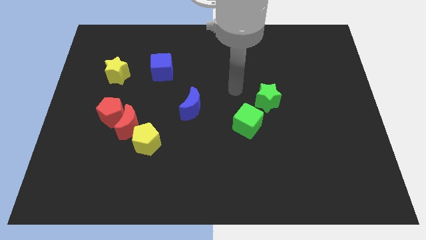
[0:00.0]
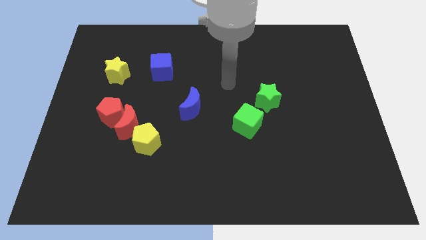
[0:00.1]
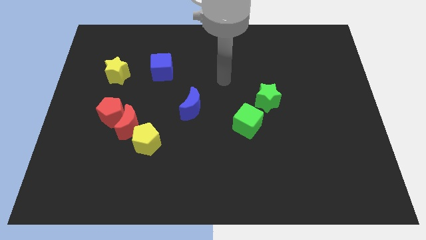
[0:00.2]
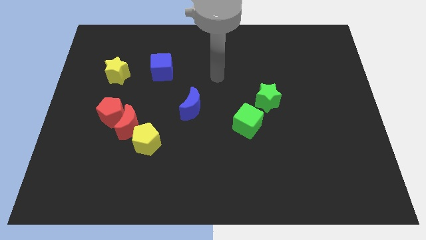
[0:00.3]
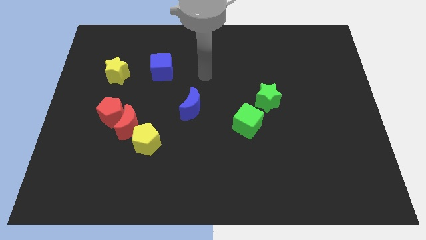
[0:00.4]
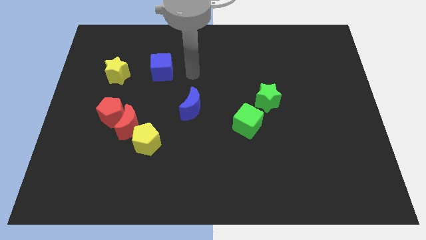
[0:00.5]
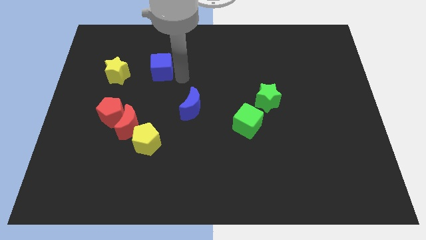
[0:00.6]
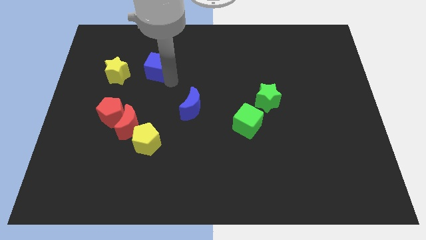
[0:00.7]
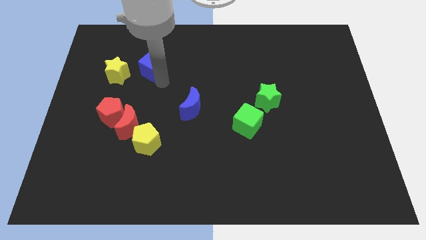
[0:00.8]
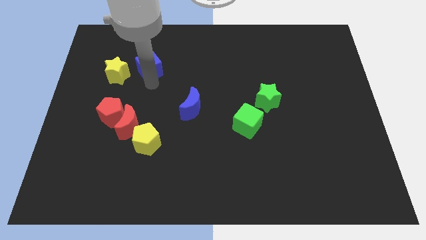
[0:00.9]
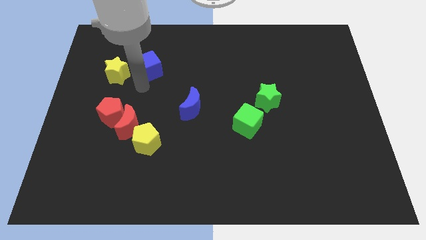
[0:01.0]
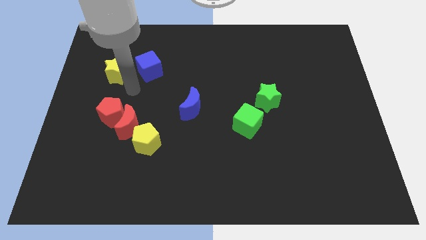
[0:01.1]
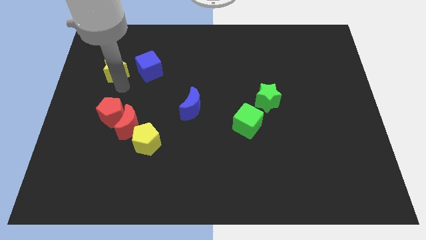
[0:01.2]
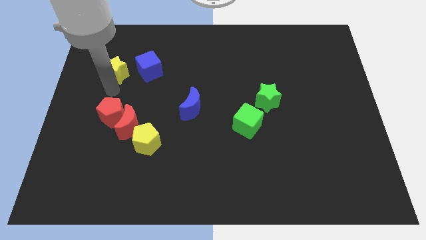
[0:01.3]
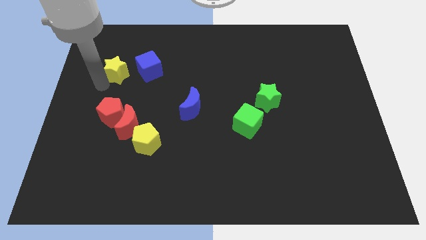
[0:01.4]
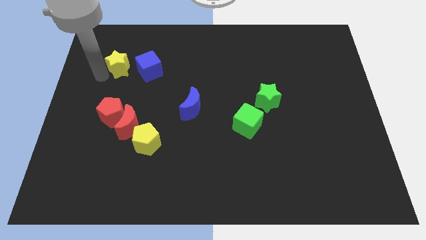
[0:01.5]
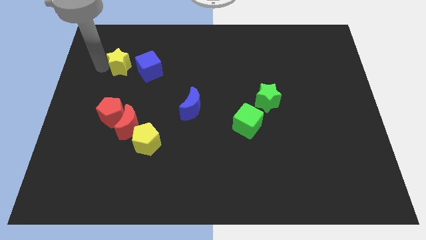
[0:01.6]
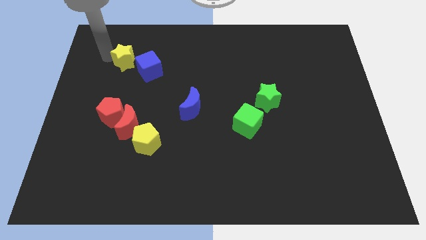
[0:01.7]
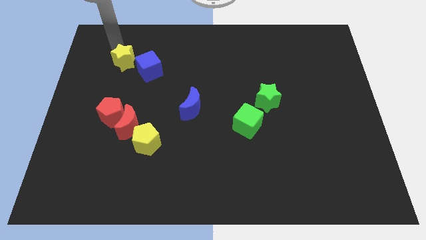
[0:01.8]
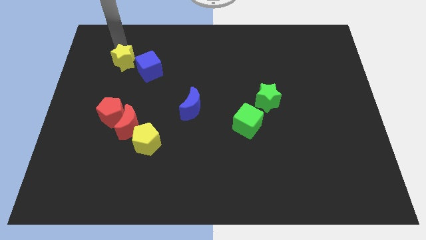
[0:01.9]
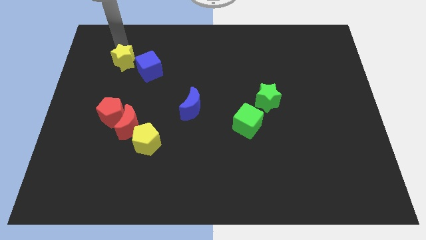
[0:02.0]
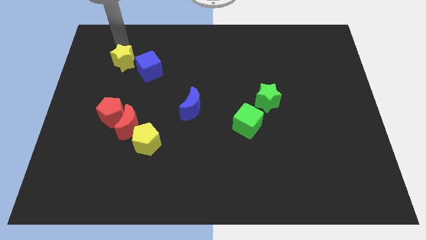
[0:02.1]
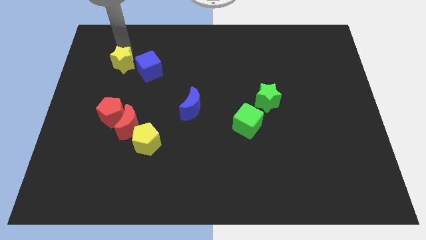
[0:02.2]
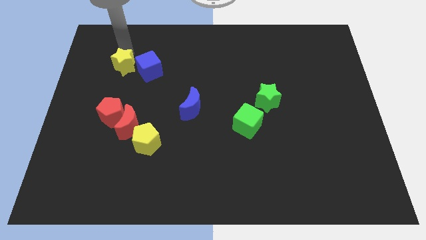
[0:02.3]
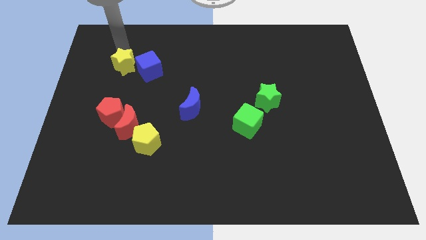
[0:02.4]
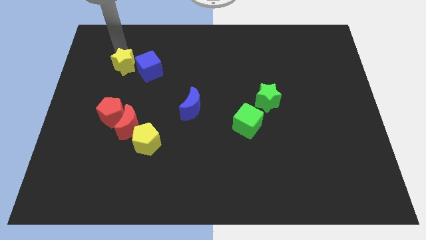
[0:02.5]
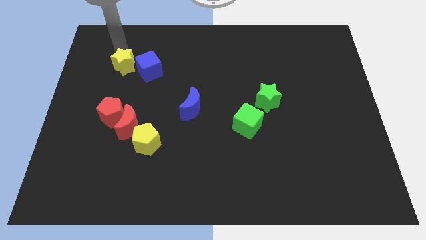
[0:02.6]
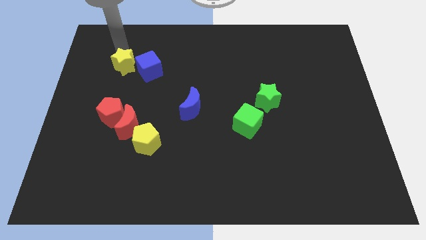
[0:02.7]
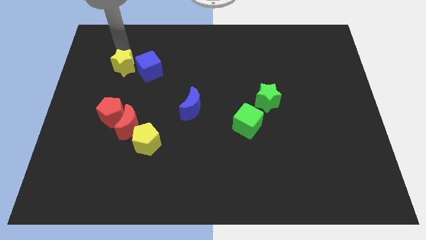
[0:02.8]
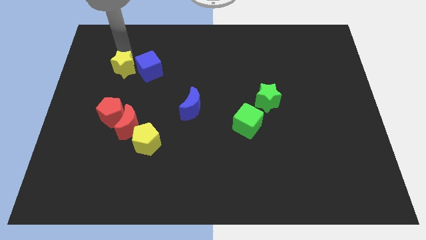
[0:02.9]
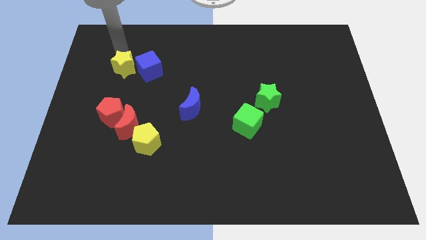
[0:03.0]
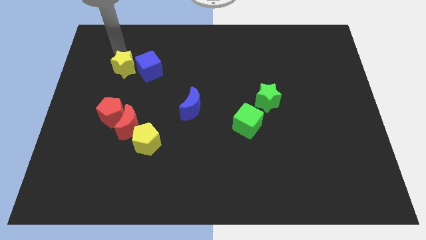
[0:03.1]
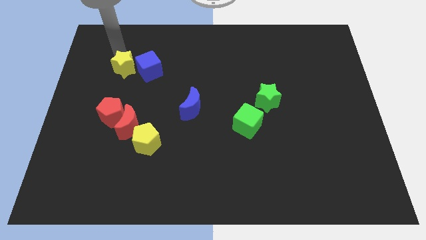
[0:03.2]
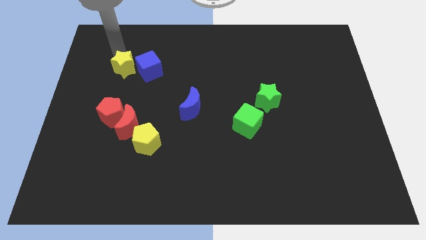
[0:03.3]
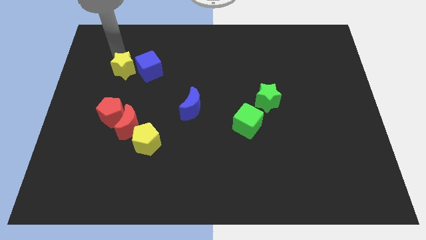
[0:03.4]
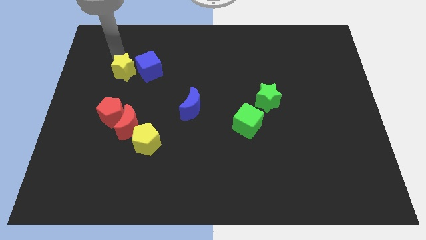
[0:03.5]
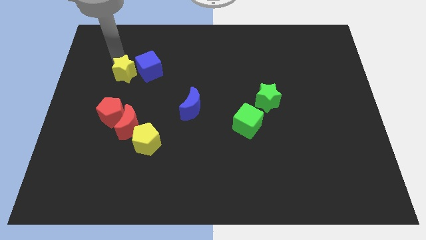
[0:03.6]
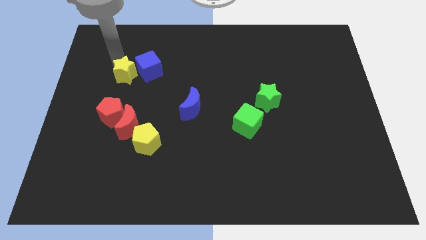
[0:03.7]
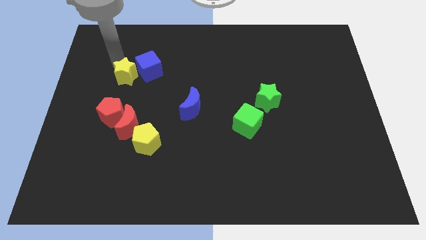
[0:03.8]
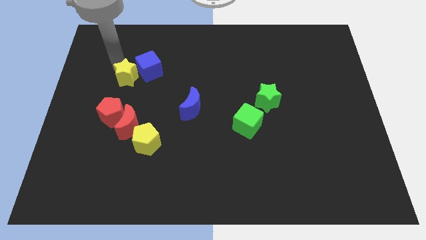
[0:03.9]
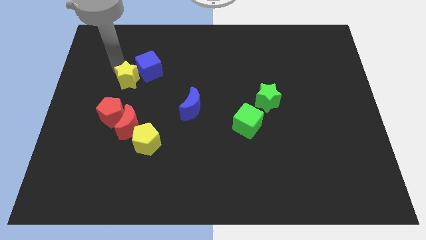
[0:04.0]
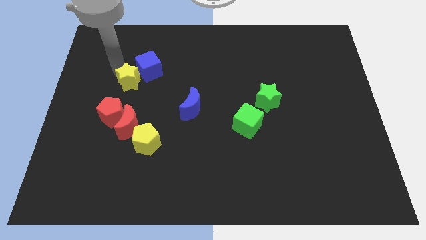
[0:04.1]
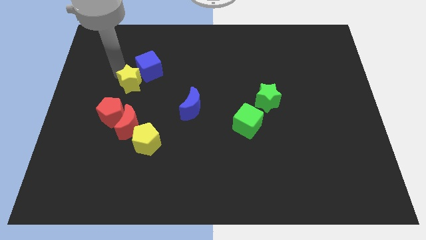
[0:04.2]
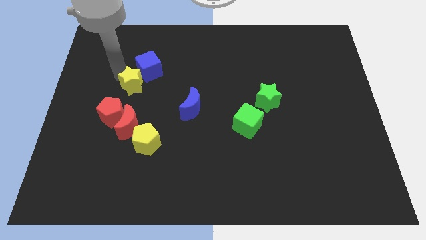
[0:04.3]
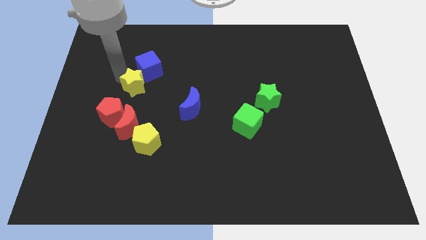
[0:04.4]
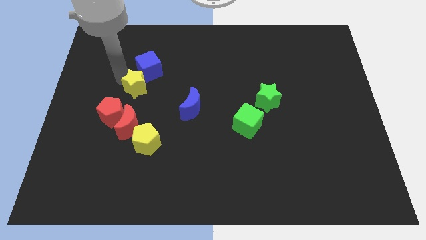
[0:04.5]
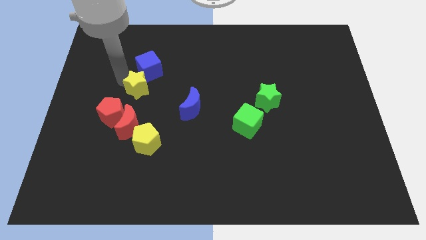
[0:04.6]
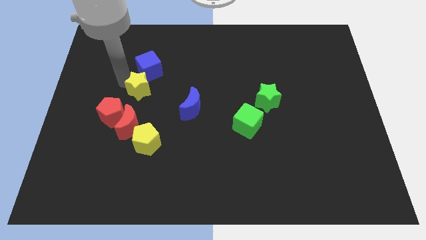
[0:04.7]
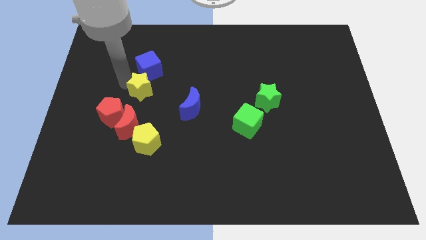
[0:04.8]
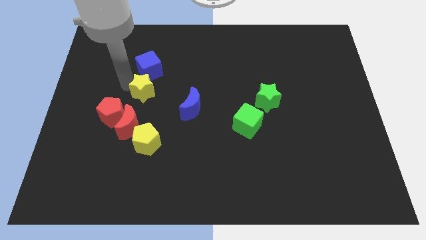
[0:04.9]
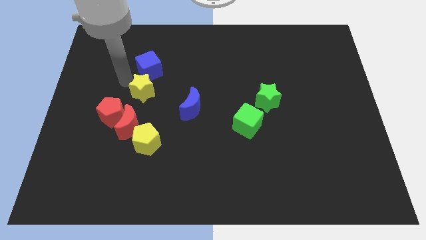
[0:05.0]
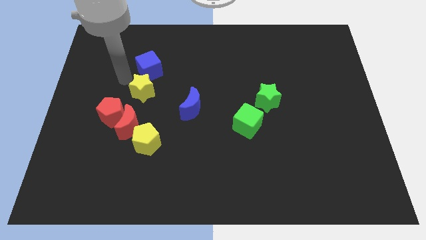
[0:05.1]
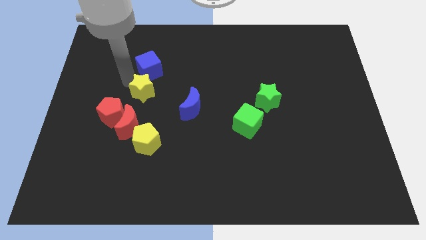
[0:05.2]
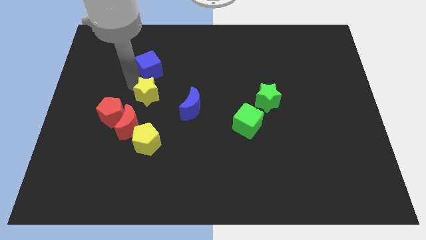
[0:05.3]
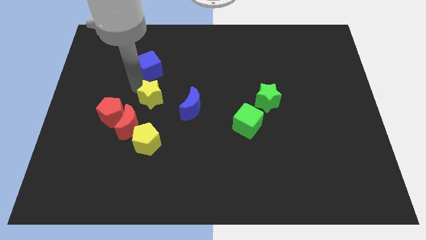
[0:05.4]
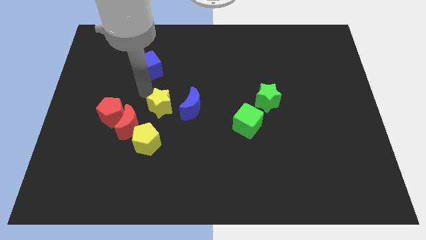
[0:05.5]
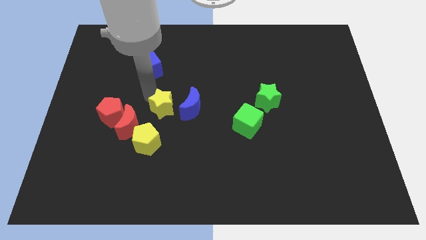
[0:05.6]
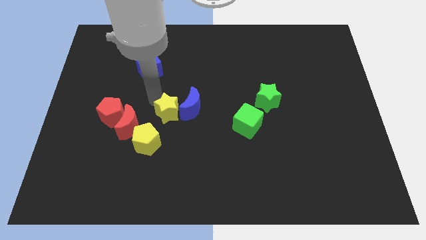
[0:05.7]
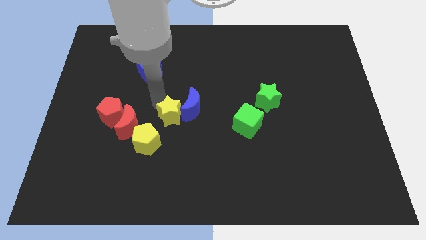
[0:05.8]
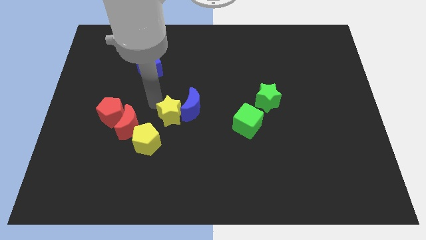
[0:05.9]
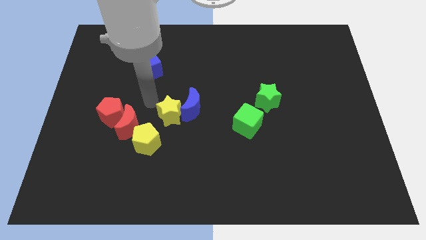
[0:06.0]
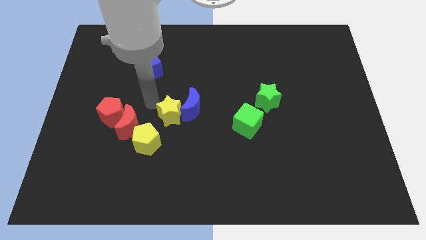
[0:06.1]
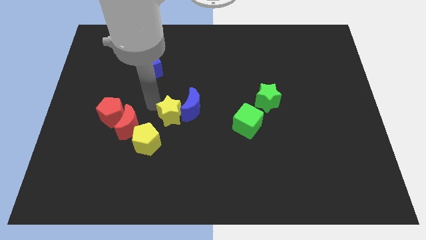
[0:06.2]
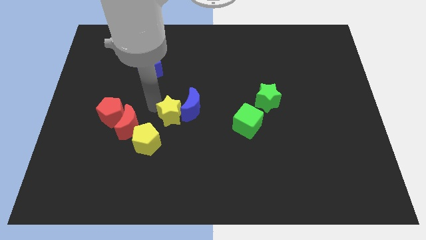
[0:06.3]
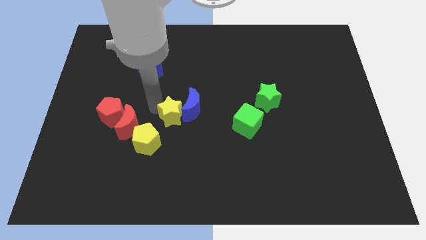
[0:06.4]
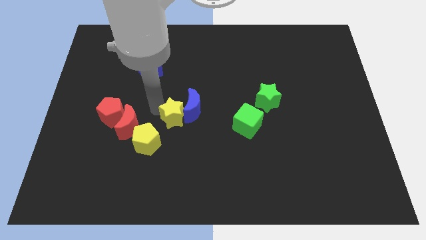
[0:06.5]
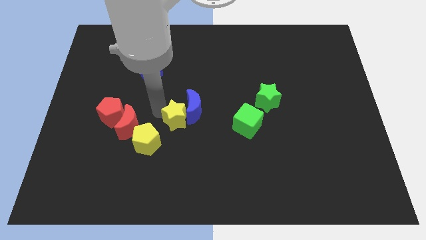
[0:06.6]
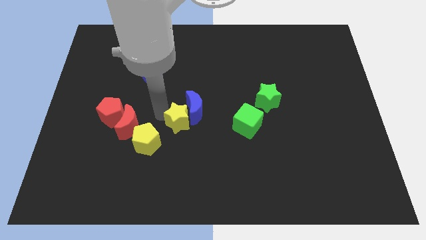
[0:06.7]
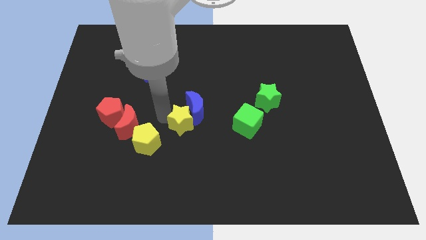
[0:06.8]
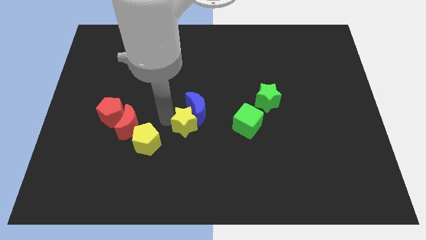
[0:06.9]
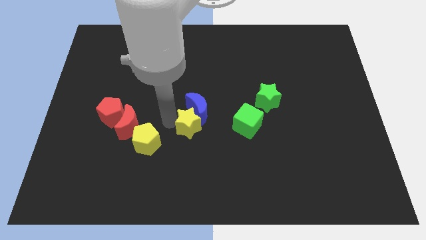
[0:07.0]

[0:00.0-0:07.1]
put the yellow star diagonally down and to the right of the blue moon

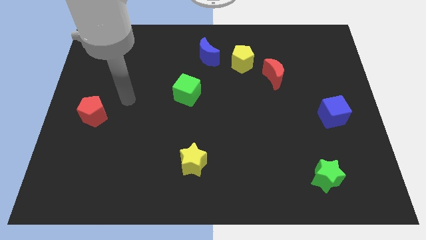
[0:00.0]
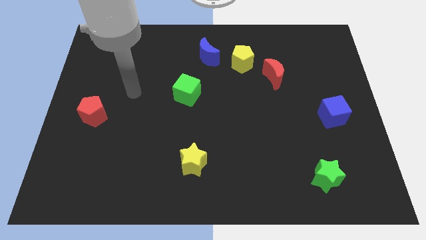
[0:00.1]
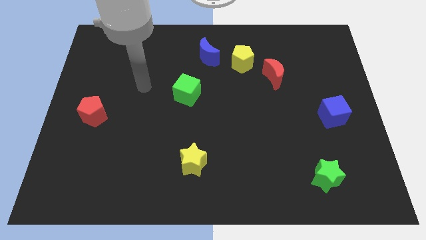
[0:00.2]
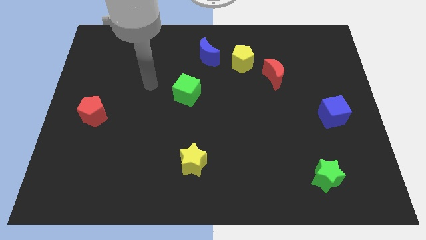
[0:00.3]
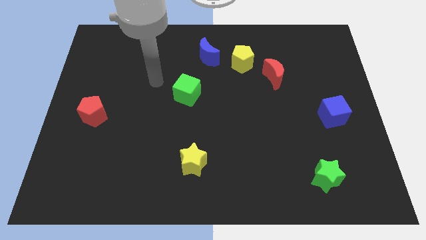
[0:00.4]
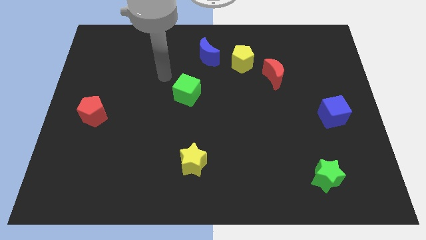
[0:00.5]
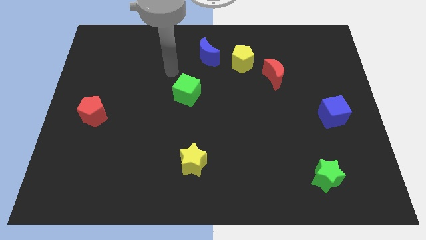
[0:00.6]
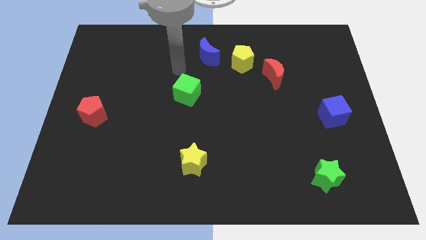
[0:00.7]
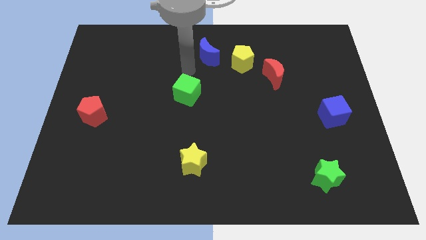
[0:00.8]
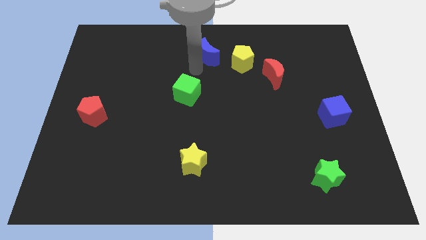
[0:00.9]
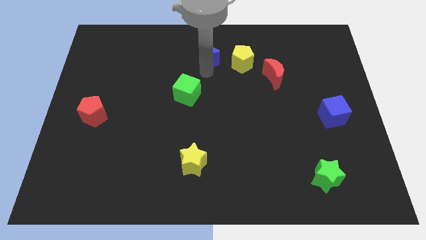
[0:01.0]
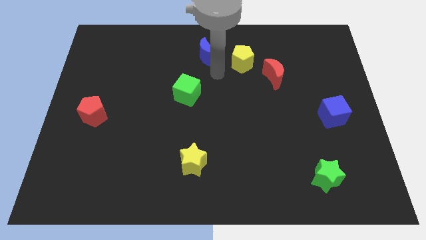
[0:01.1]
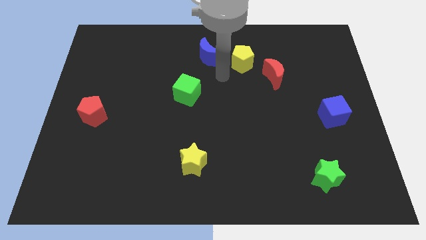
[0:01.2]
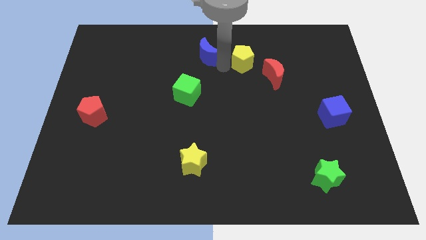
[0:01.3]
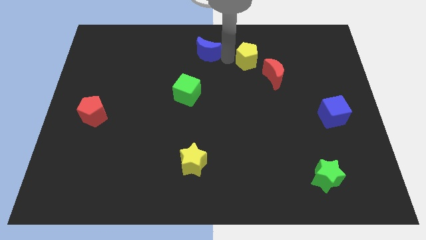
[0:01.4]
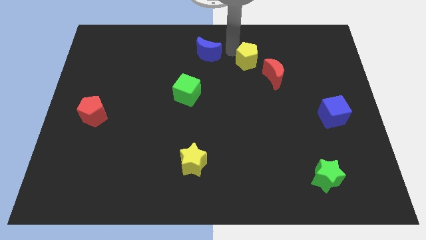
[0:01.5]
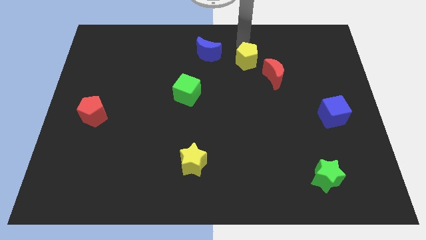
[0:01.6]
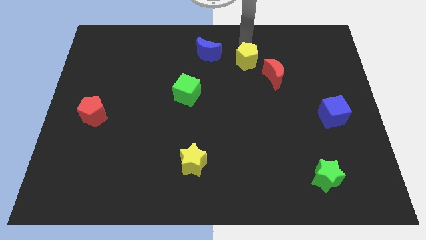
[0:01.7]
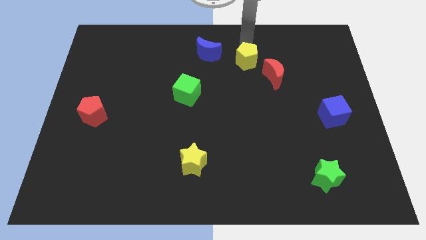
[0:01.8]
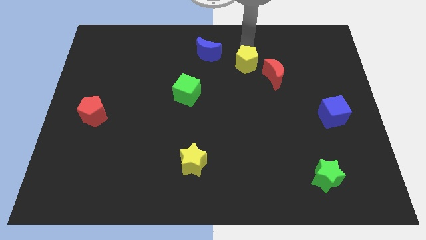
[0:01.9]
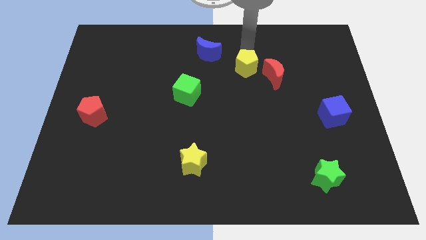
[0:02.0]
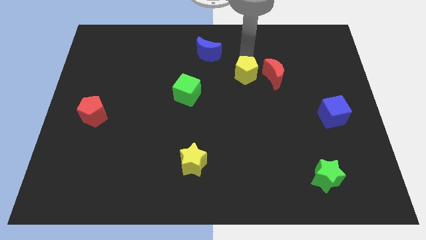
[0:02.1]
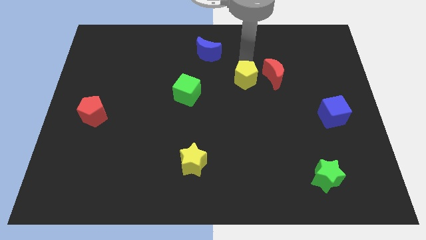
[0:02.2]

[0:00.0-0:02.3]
put the yellow pentagon to the bottom left side of the red moon
